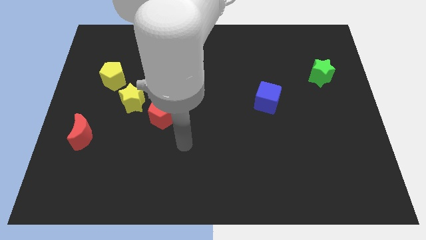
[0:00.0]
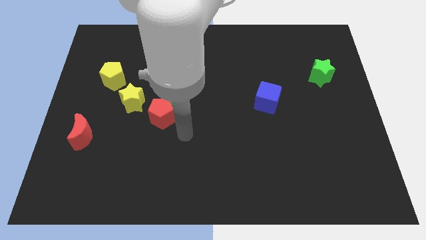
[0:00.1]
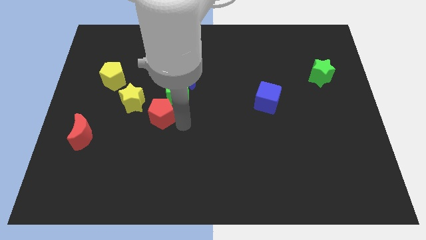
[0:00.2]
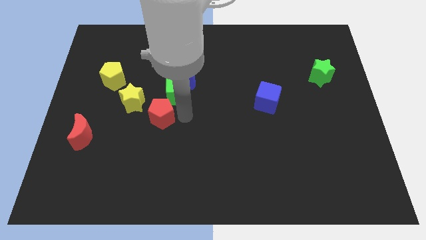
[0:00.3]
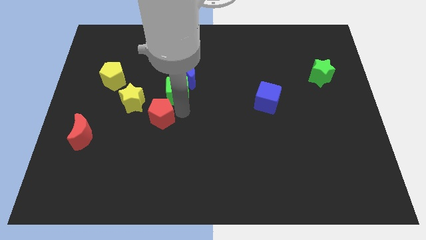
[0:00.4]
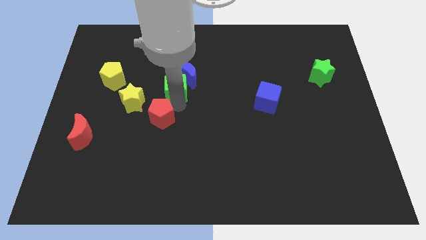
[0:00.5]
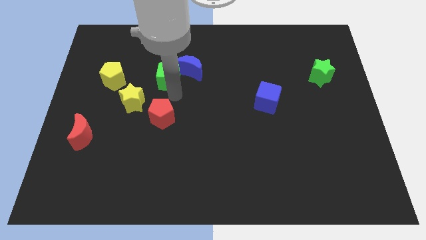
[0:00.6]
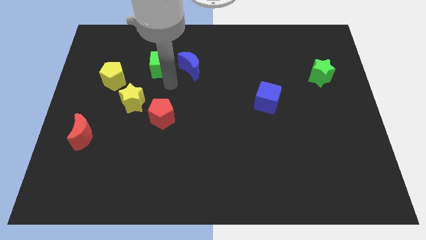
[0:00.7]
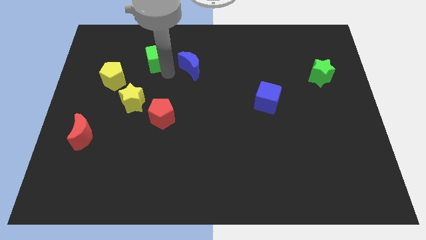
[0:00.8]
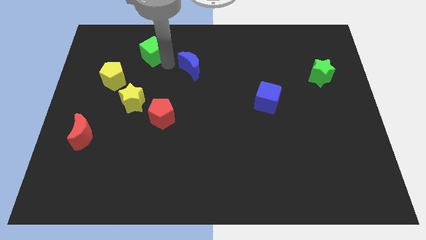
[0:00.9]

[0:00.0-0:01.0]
separate the blue moon from the green cube

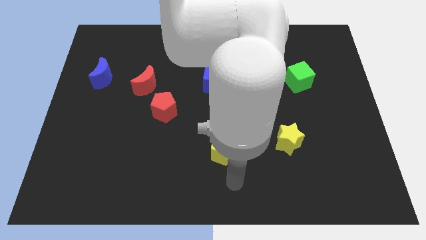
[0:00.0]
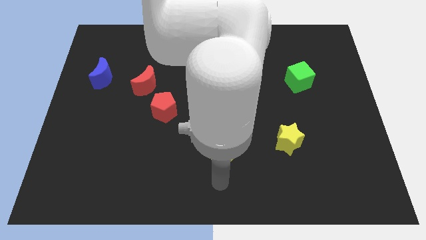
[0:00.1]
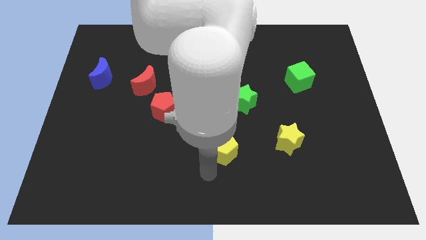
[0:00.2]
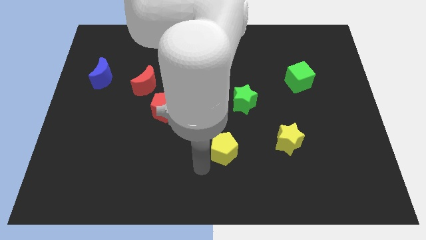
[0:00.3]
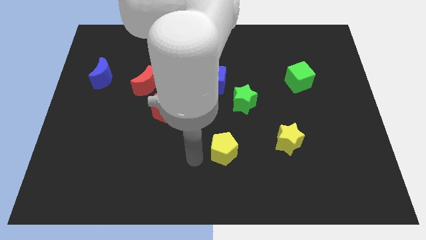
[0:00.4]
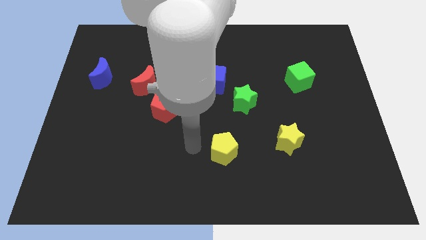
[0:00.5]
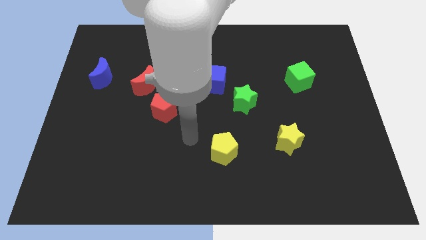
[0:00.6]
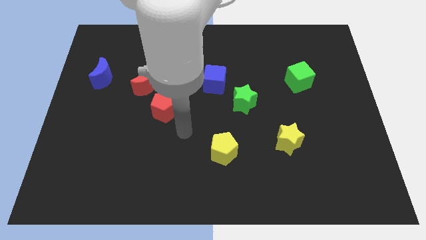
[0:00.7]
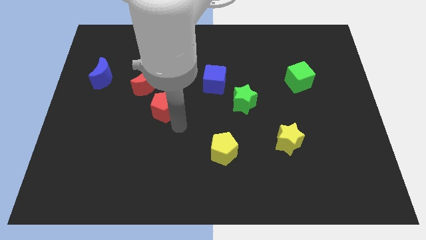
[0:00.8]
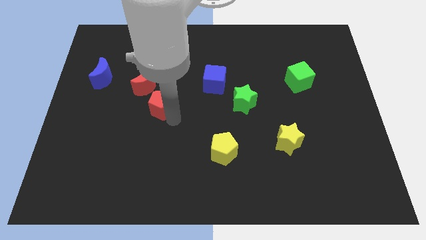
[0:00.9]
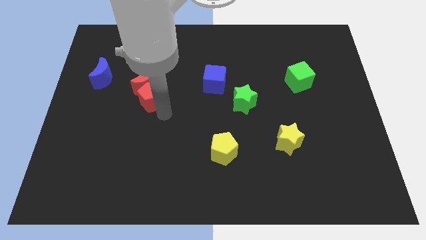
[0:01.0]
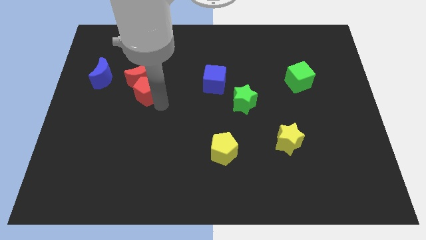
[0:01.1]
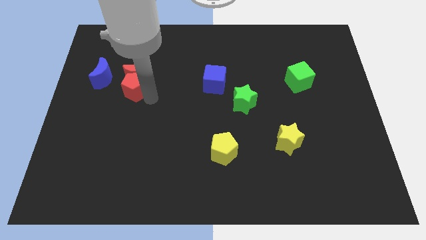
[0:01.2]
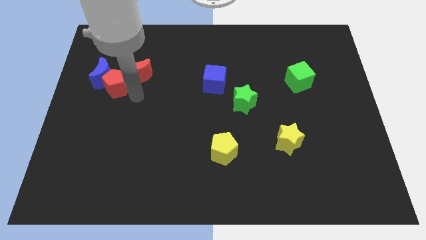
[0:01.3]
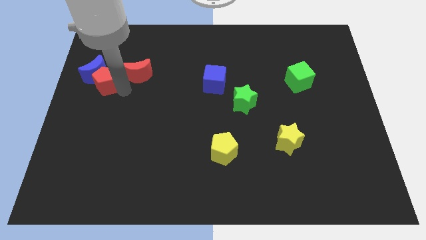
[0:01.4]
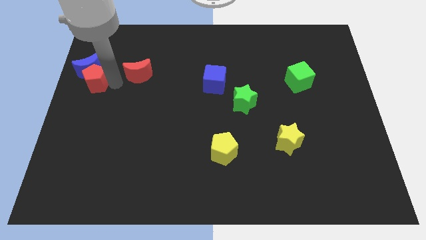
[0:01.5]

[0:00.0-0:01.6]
separate the red moon from the red pentagon

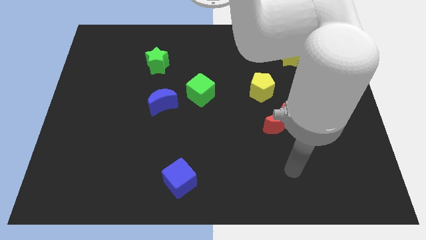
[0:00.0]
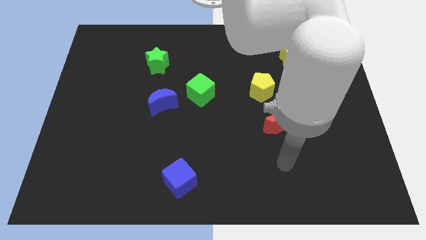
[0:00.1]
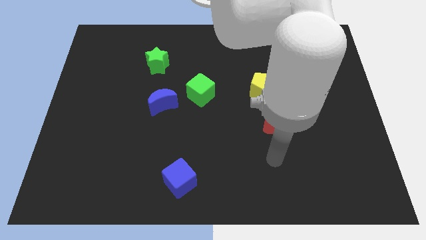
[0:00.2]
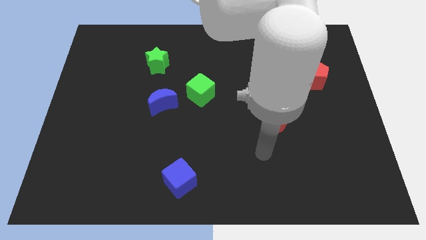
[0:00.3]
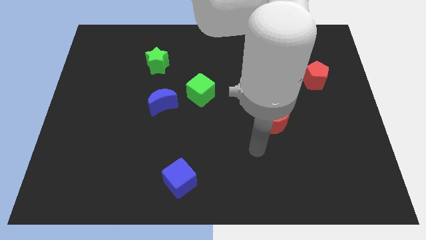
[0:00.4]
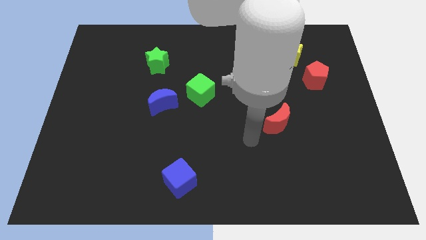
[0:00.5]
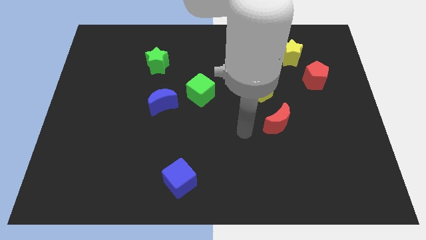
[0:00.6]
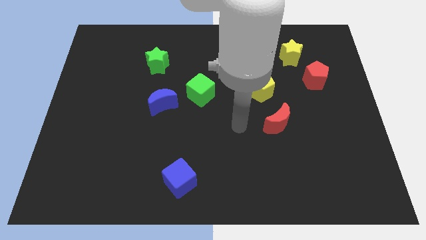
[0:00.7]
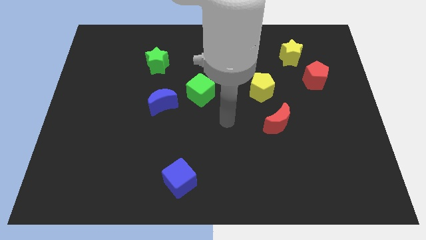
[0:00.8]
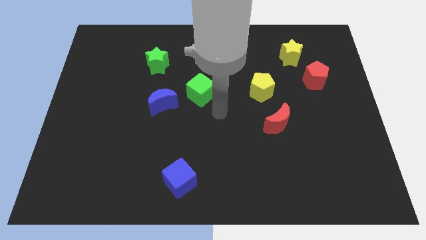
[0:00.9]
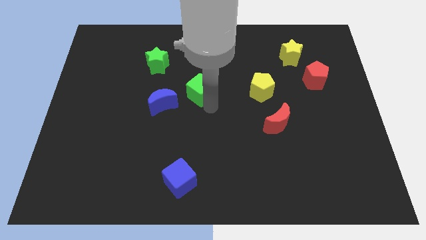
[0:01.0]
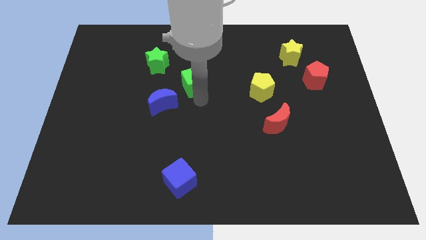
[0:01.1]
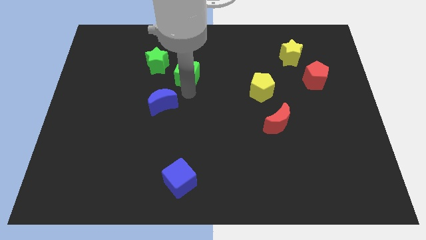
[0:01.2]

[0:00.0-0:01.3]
move the blue moon away from the green cube

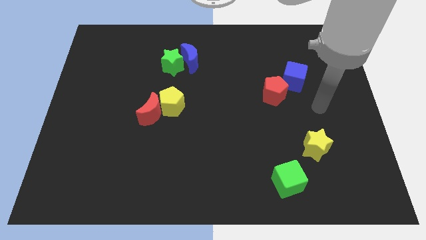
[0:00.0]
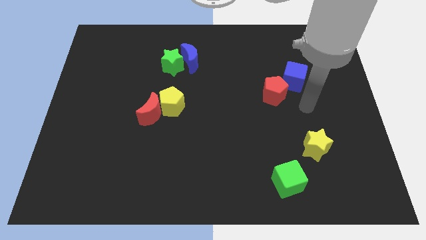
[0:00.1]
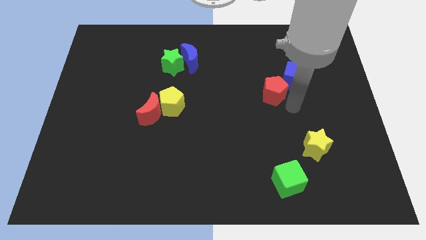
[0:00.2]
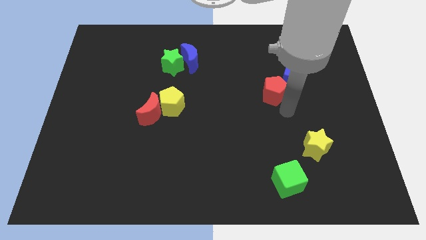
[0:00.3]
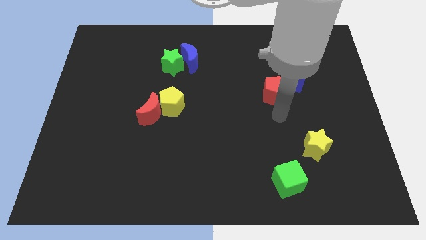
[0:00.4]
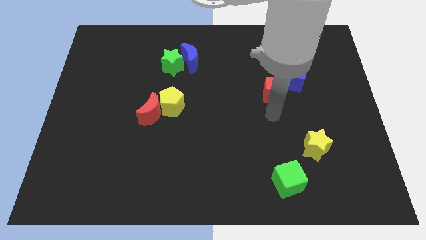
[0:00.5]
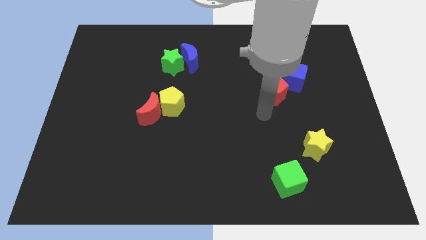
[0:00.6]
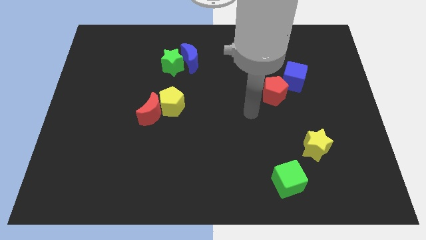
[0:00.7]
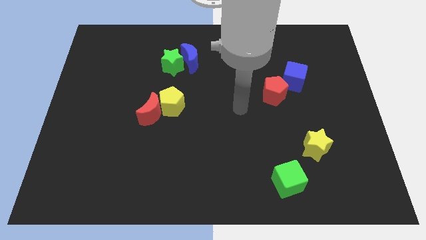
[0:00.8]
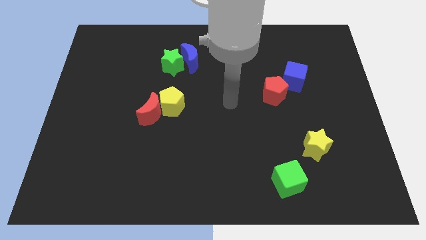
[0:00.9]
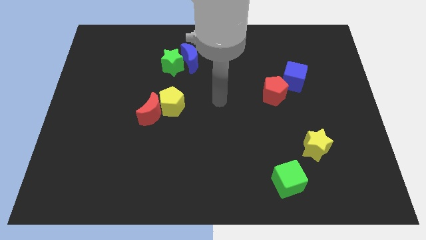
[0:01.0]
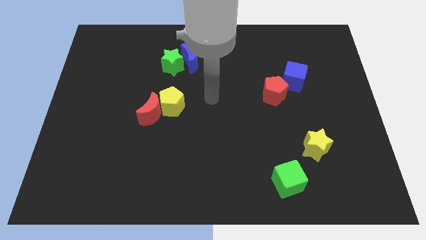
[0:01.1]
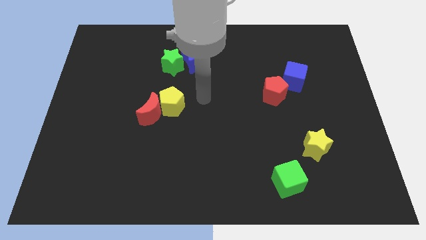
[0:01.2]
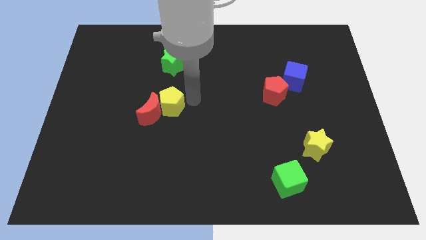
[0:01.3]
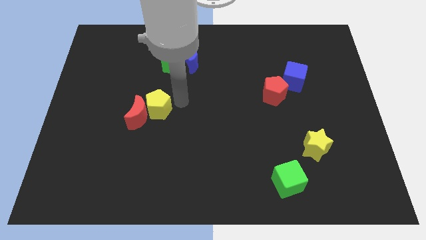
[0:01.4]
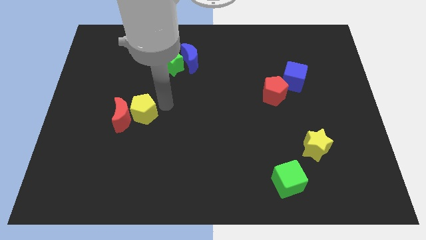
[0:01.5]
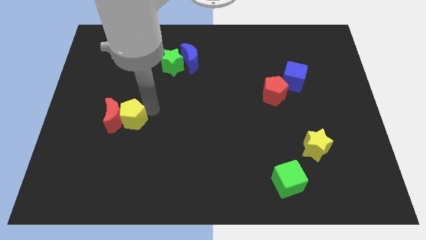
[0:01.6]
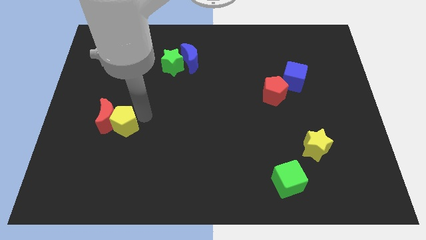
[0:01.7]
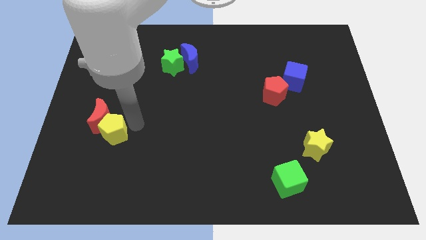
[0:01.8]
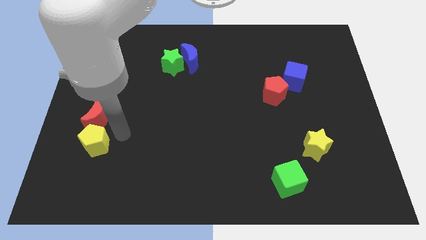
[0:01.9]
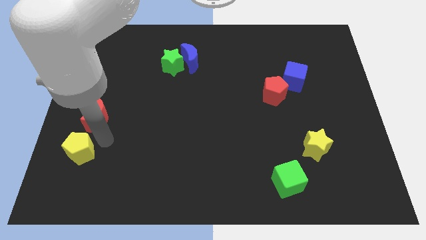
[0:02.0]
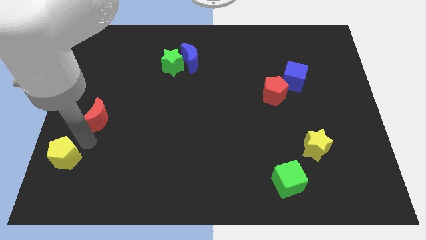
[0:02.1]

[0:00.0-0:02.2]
pull the red moon apart from the yellow pentagon

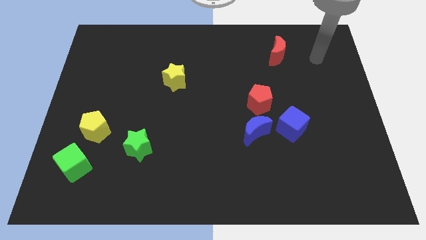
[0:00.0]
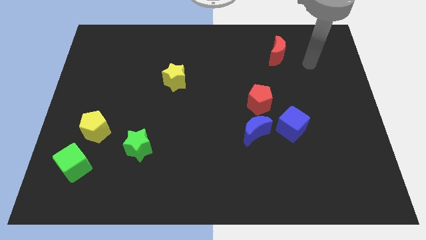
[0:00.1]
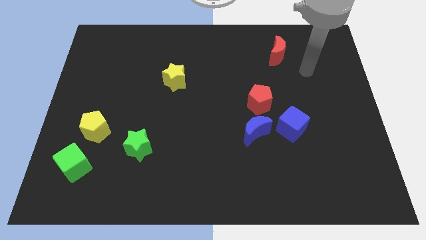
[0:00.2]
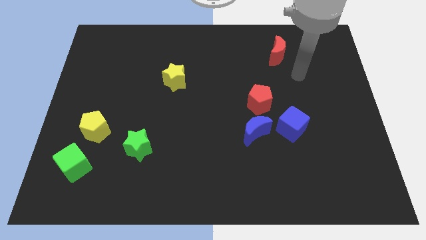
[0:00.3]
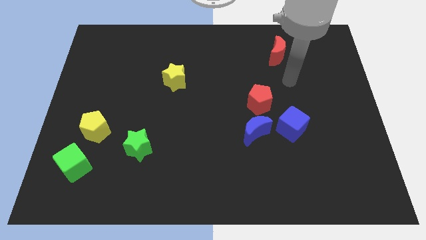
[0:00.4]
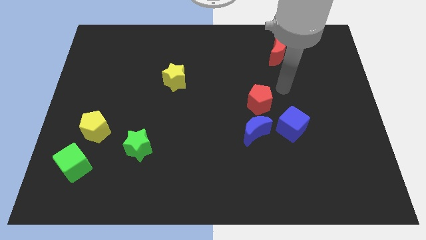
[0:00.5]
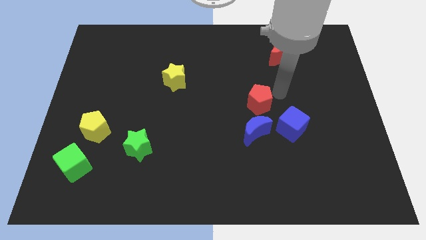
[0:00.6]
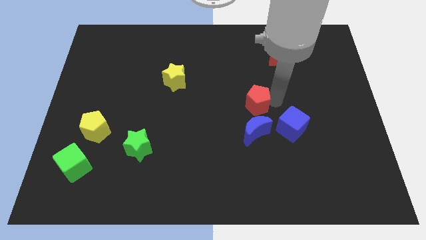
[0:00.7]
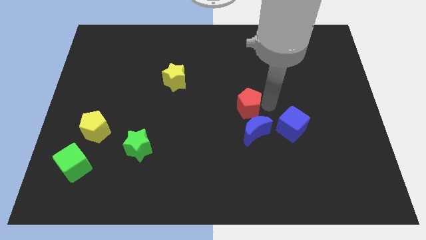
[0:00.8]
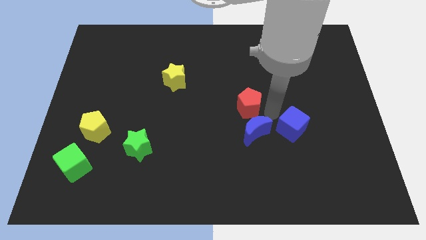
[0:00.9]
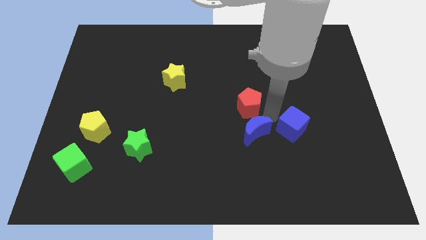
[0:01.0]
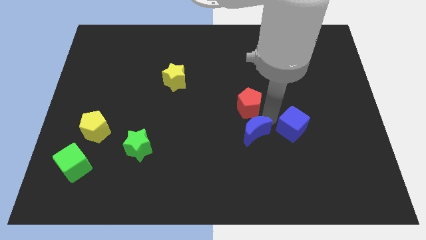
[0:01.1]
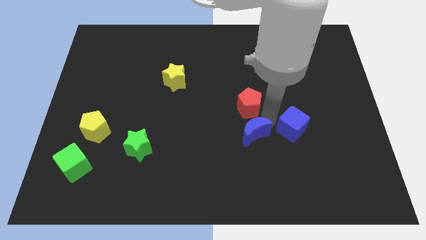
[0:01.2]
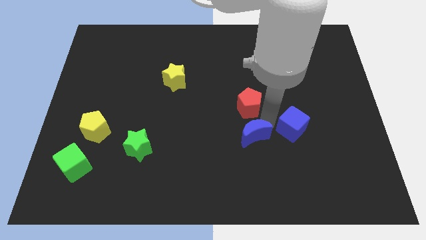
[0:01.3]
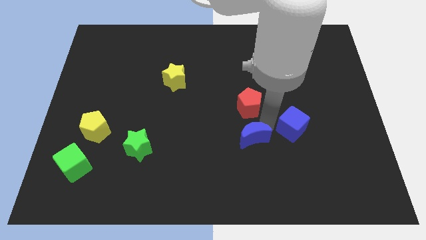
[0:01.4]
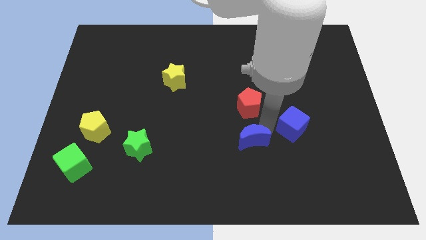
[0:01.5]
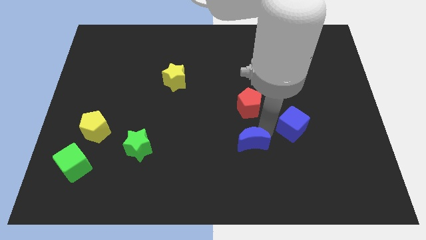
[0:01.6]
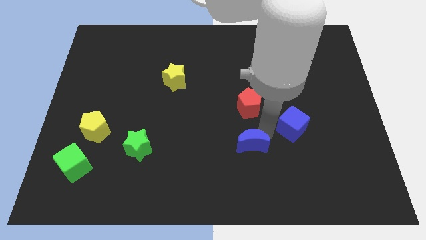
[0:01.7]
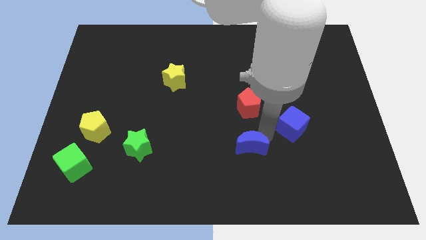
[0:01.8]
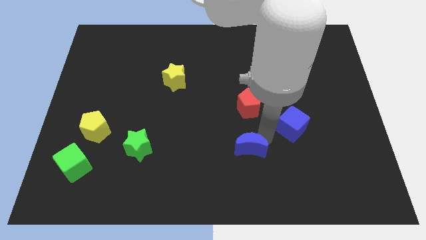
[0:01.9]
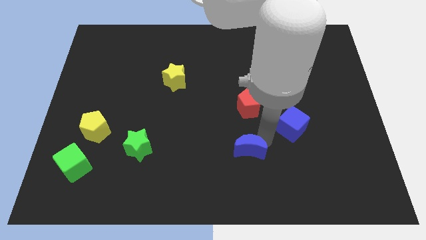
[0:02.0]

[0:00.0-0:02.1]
pull the blue moon apart from the blue cube and red pentagon

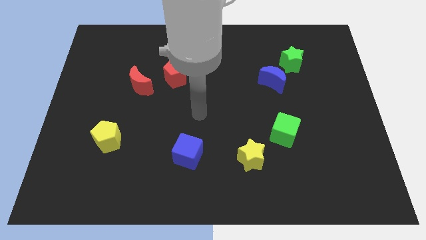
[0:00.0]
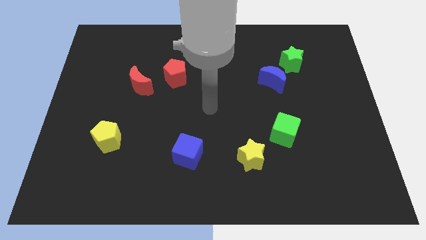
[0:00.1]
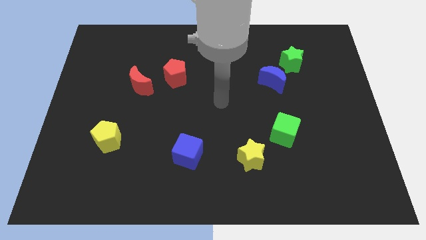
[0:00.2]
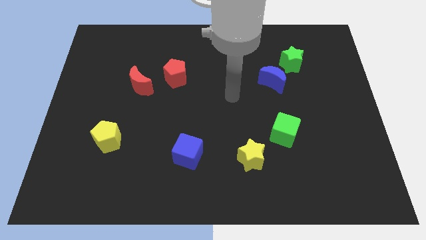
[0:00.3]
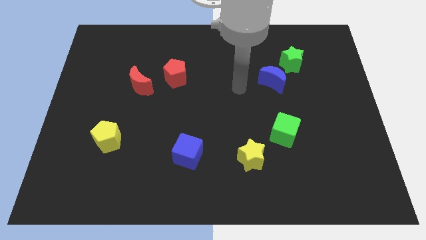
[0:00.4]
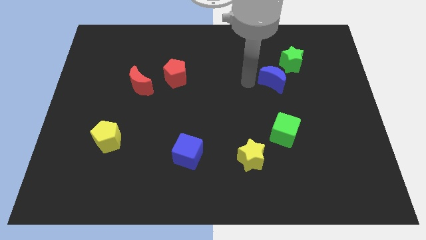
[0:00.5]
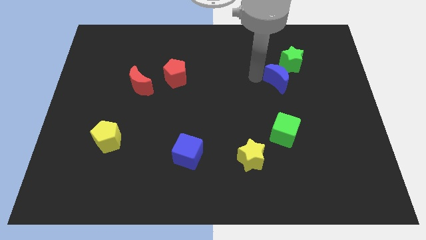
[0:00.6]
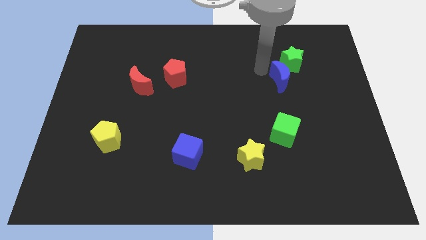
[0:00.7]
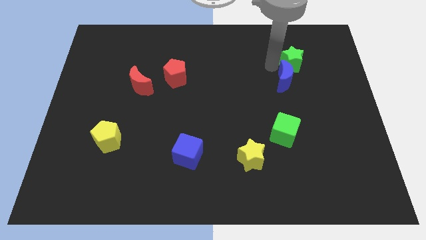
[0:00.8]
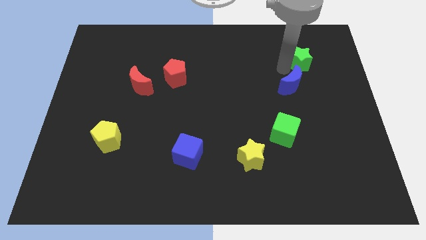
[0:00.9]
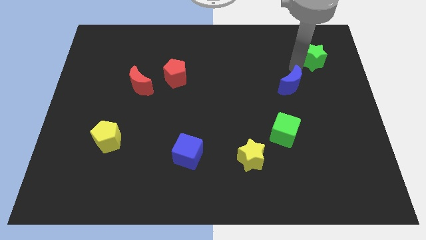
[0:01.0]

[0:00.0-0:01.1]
pull the blue moon apart from the green star
